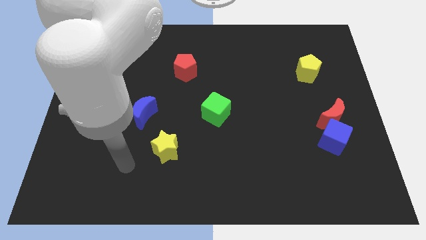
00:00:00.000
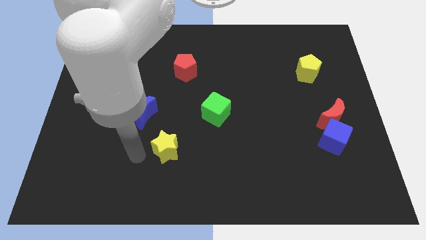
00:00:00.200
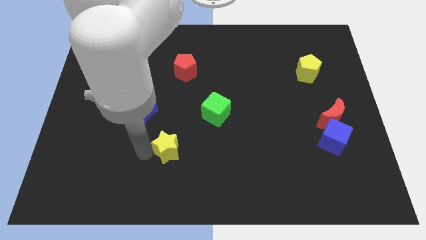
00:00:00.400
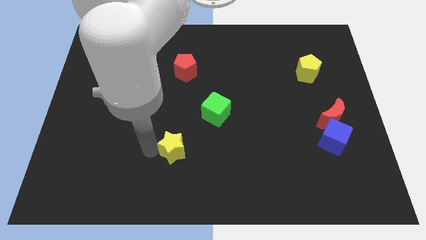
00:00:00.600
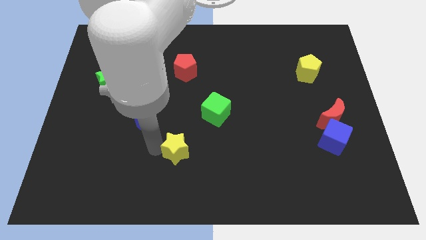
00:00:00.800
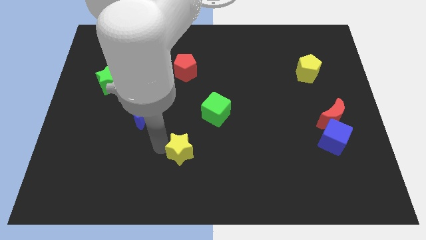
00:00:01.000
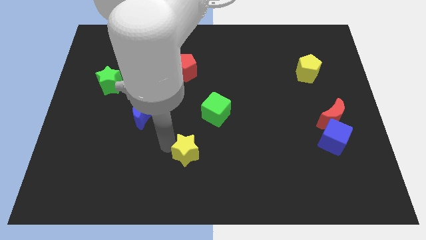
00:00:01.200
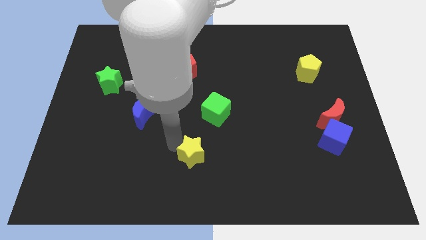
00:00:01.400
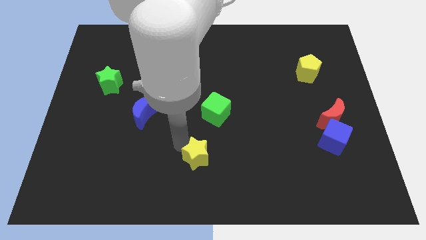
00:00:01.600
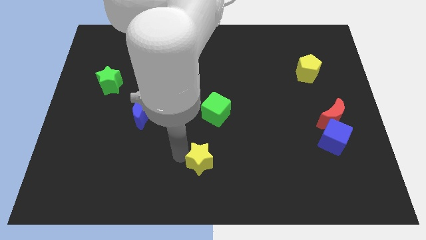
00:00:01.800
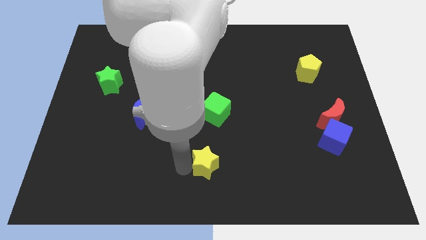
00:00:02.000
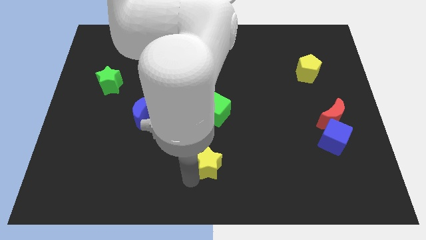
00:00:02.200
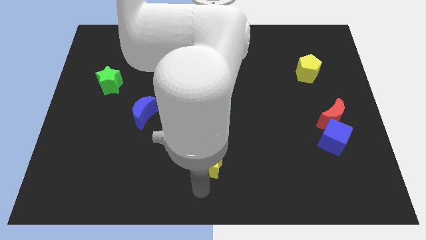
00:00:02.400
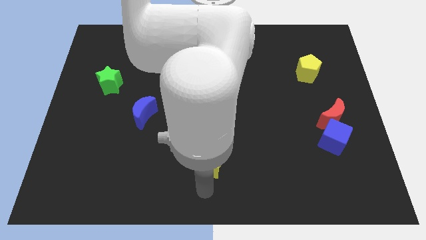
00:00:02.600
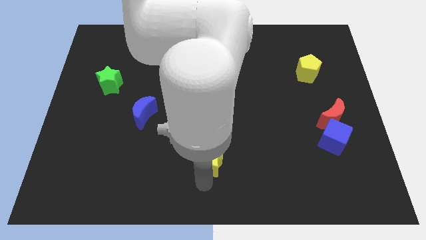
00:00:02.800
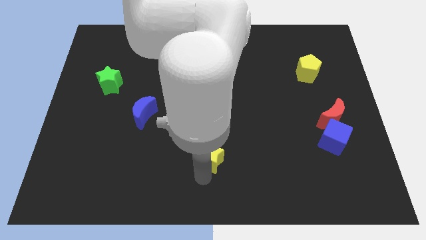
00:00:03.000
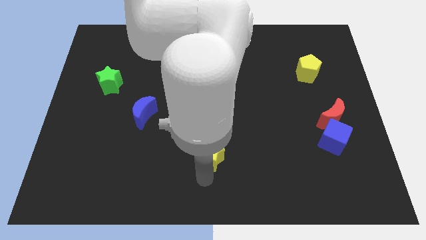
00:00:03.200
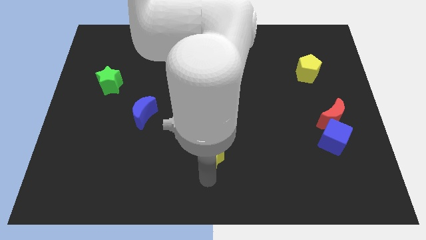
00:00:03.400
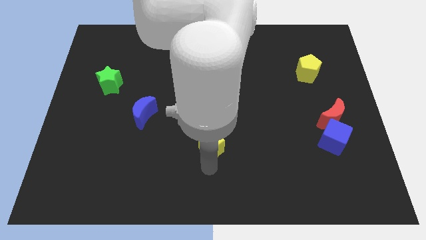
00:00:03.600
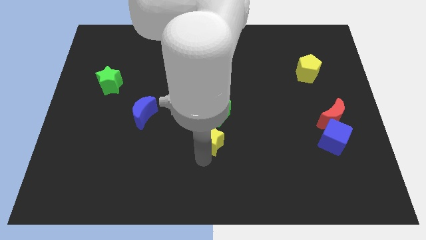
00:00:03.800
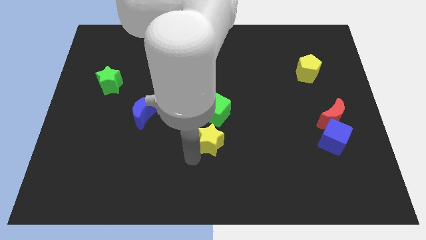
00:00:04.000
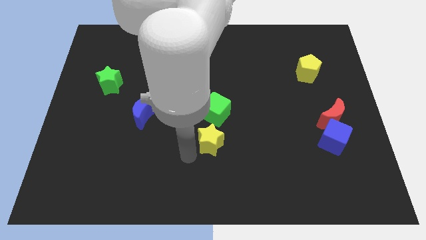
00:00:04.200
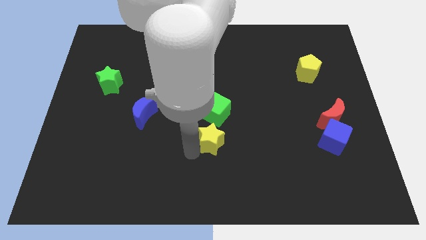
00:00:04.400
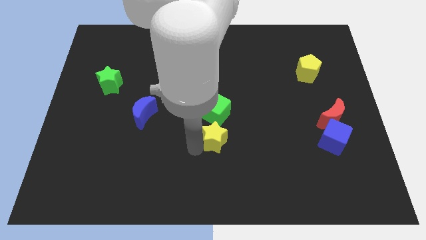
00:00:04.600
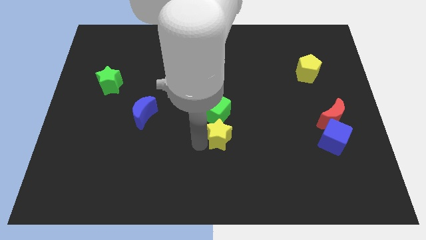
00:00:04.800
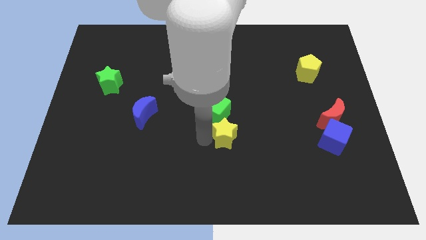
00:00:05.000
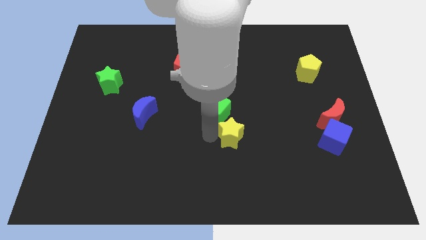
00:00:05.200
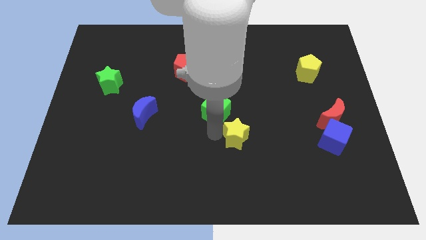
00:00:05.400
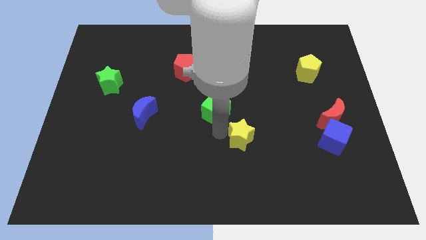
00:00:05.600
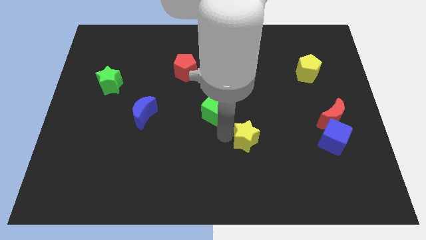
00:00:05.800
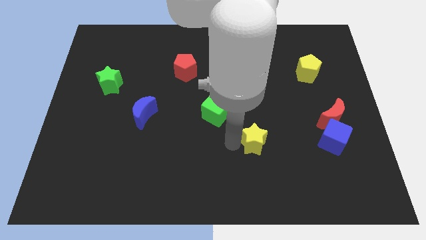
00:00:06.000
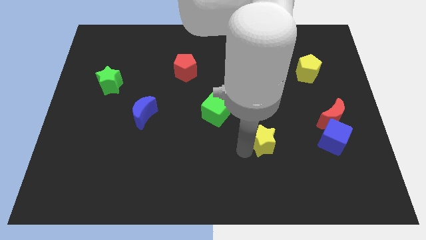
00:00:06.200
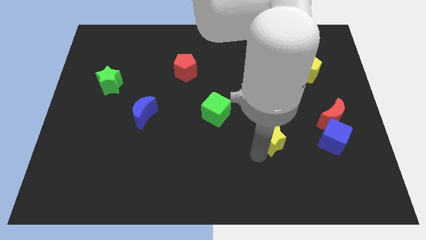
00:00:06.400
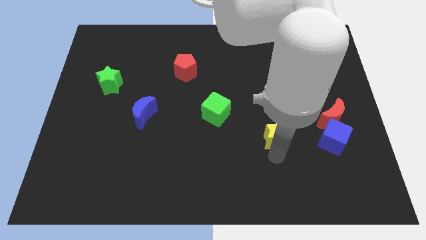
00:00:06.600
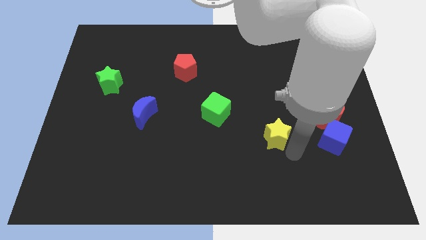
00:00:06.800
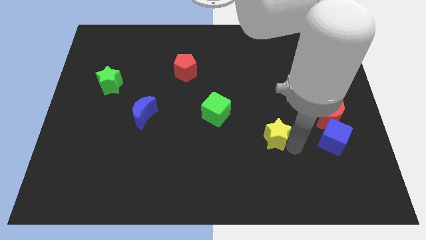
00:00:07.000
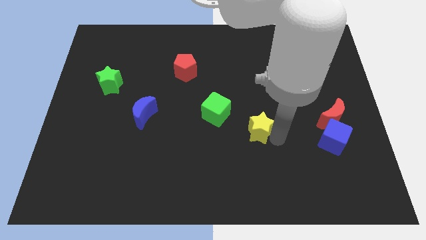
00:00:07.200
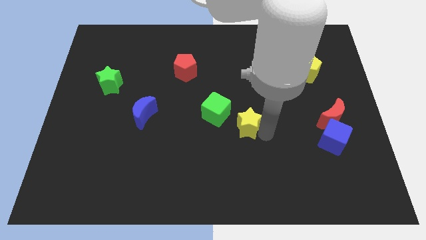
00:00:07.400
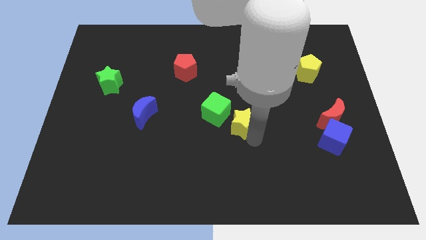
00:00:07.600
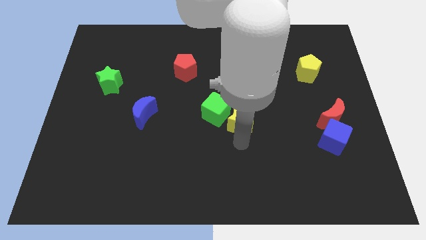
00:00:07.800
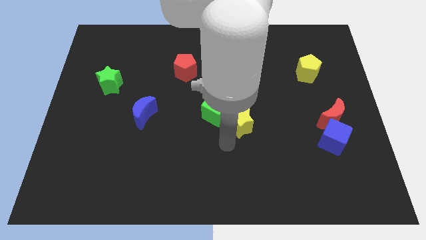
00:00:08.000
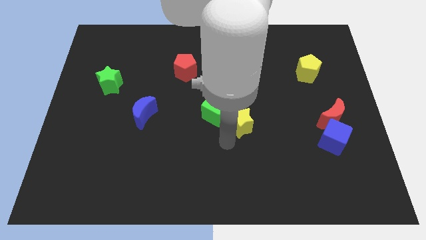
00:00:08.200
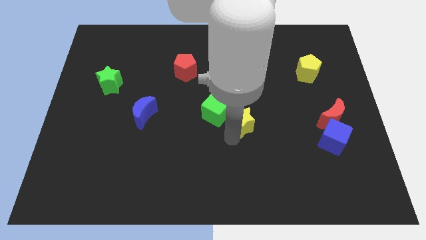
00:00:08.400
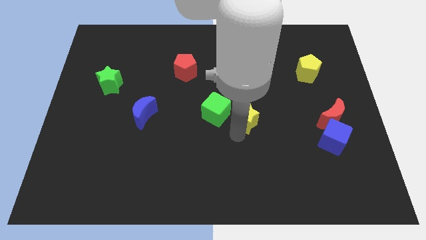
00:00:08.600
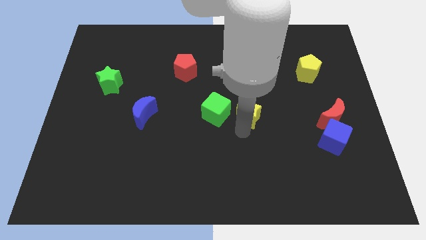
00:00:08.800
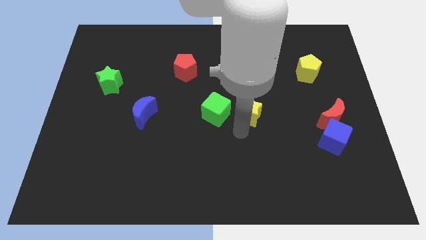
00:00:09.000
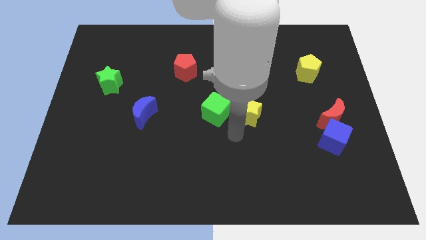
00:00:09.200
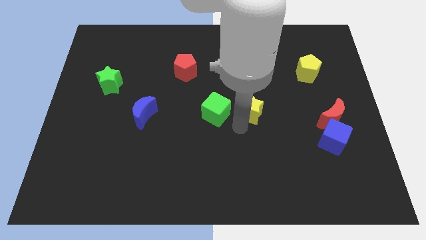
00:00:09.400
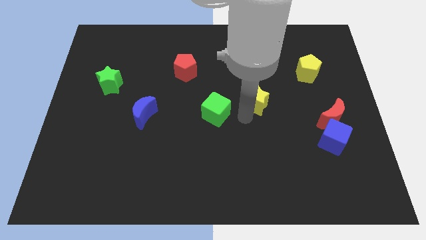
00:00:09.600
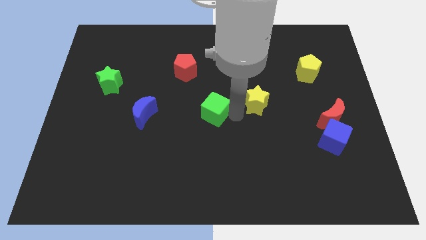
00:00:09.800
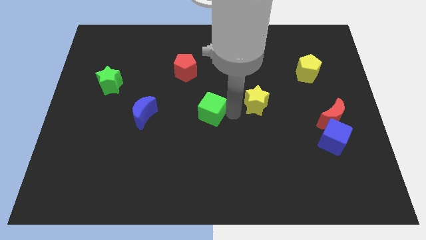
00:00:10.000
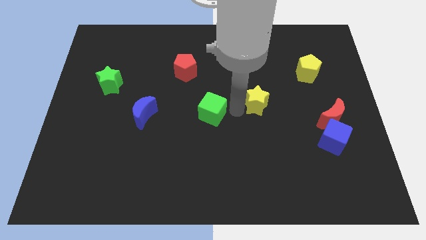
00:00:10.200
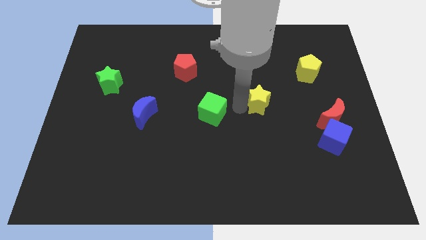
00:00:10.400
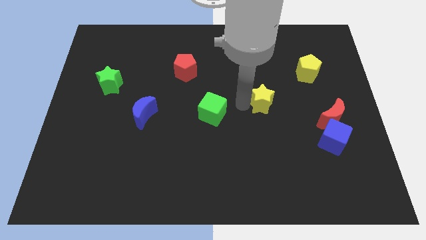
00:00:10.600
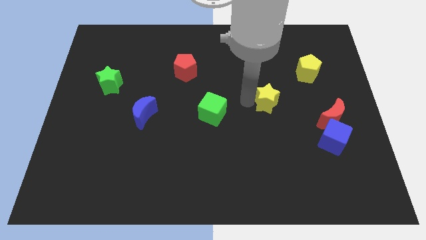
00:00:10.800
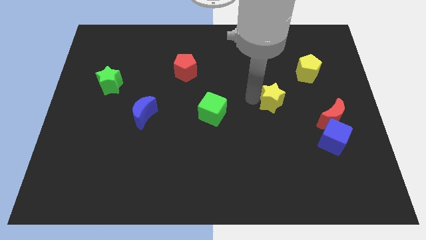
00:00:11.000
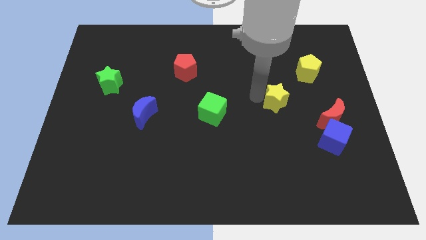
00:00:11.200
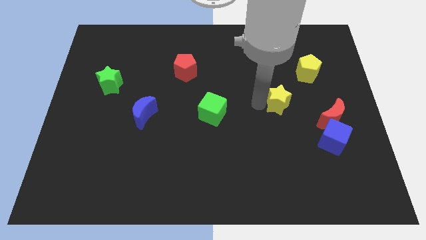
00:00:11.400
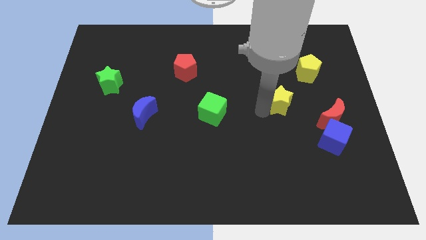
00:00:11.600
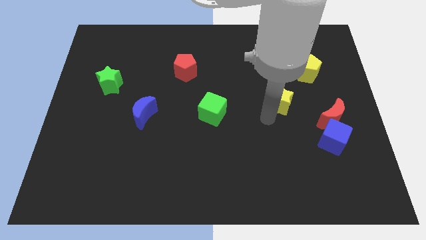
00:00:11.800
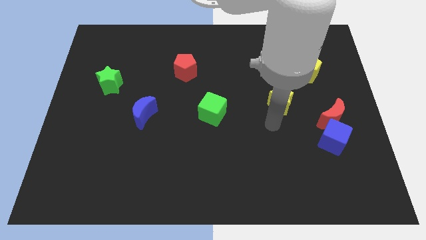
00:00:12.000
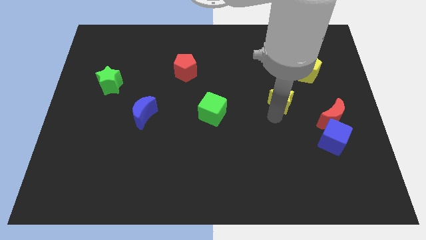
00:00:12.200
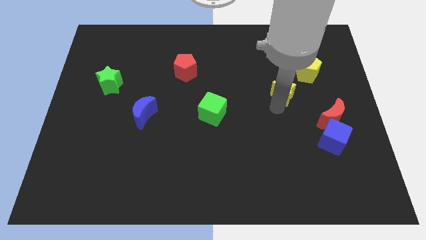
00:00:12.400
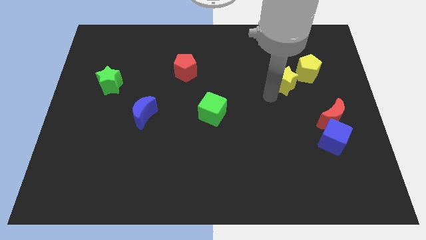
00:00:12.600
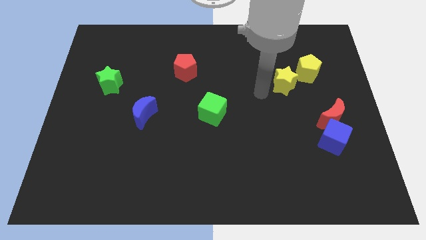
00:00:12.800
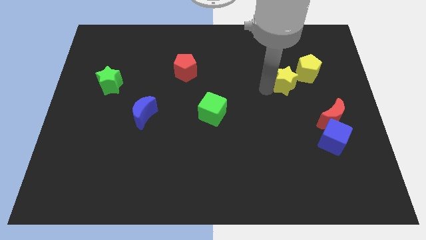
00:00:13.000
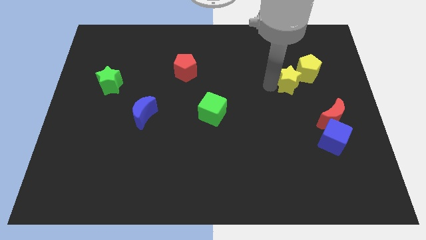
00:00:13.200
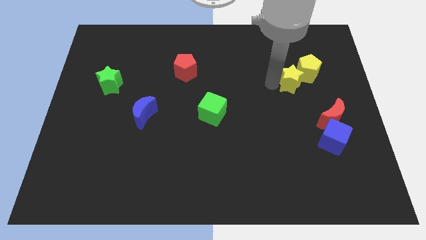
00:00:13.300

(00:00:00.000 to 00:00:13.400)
put the yellow star close to the yellow pentagon
